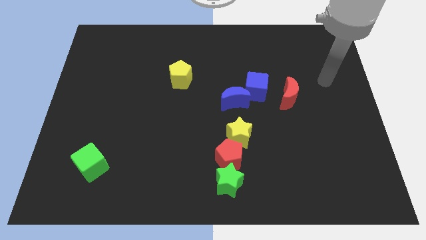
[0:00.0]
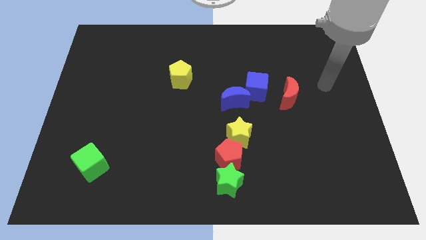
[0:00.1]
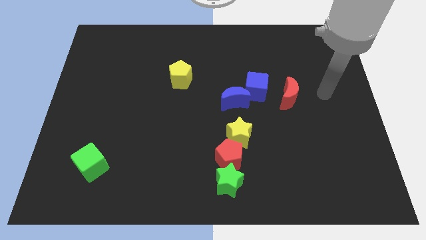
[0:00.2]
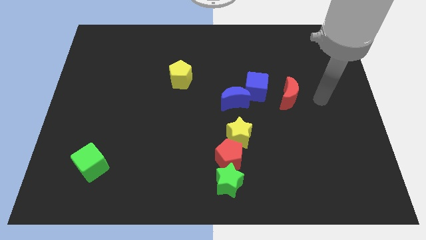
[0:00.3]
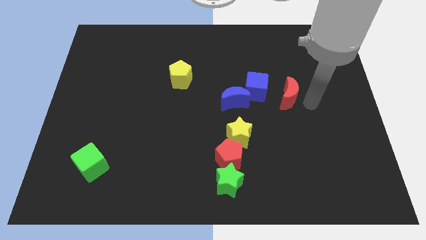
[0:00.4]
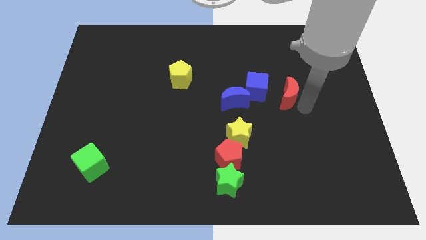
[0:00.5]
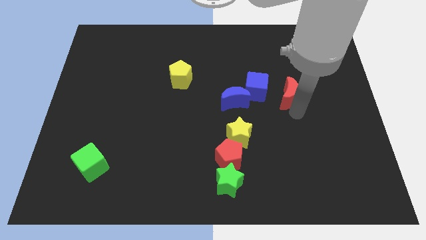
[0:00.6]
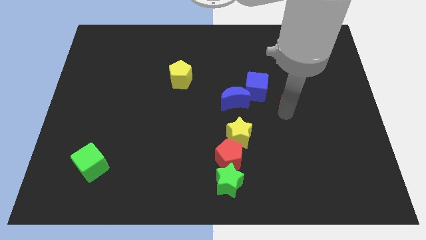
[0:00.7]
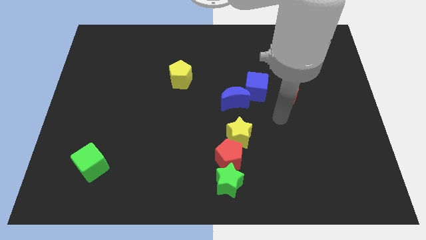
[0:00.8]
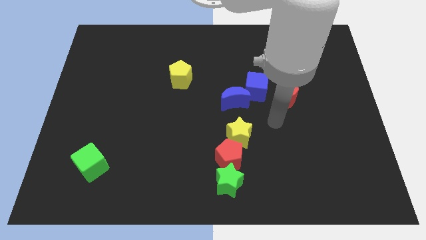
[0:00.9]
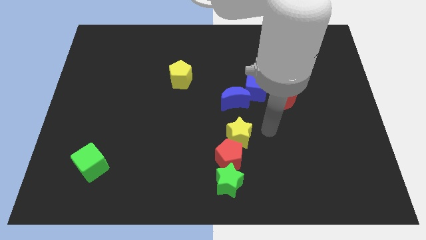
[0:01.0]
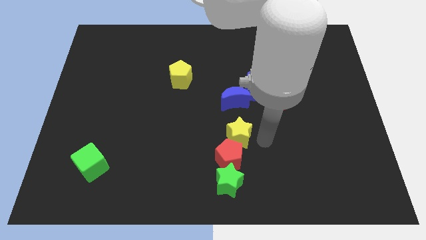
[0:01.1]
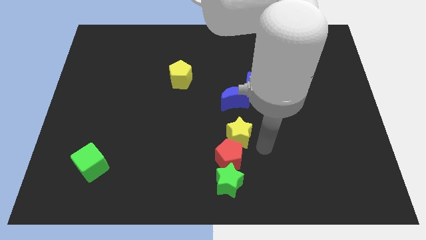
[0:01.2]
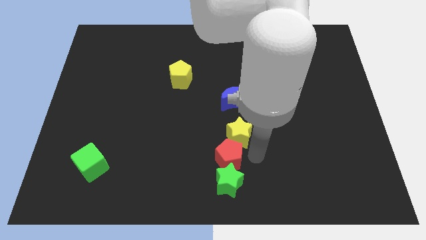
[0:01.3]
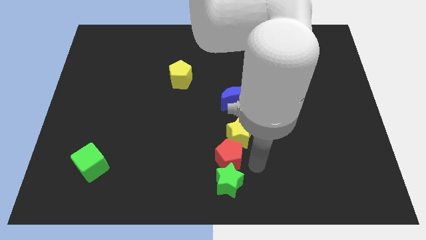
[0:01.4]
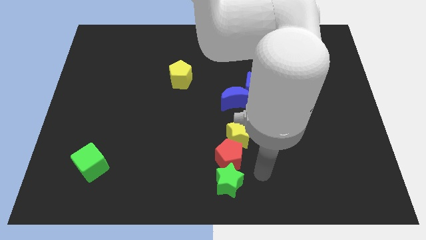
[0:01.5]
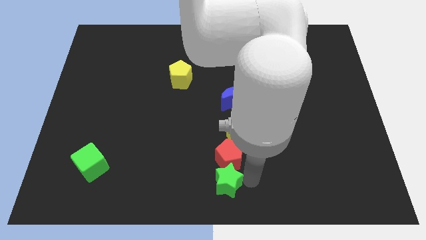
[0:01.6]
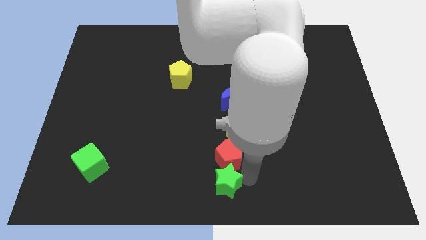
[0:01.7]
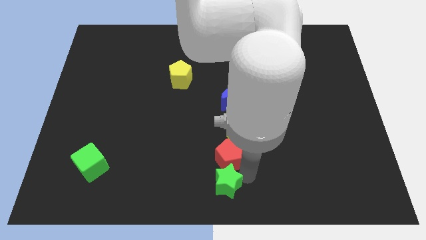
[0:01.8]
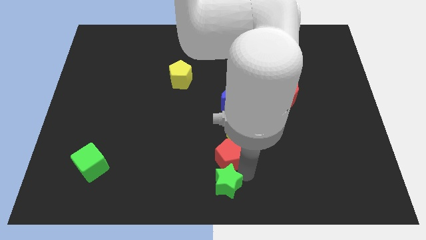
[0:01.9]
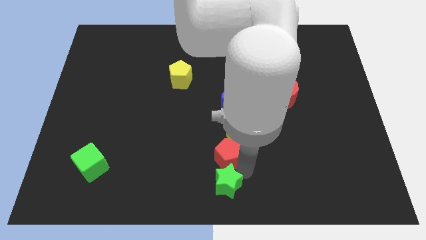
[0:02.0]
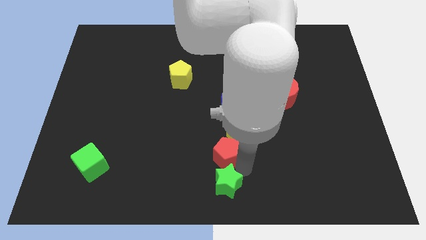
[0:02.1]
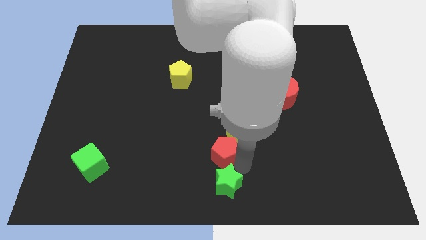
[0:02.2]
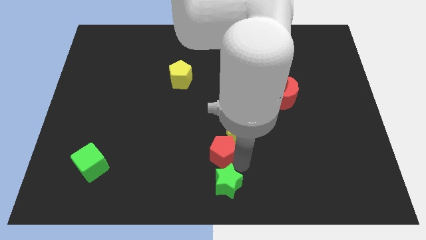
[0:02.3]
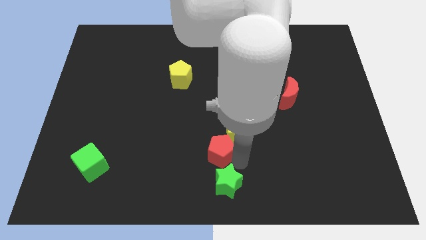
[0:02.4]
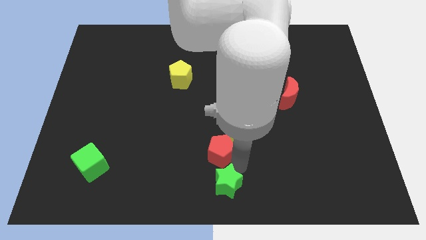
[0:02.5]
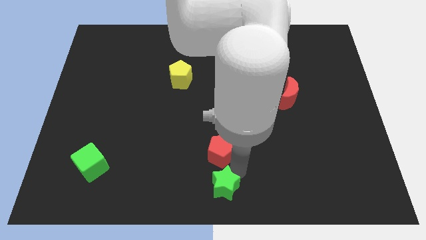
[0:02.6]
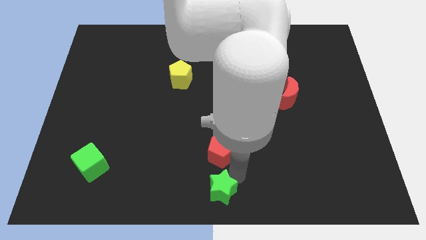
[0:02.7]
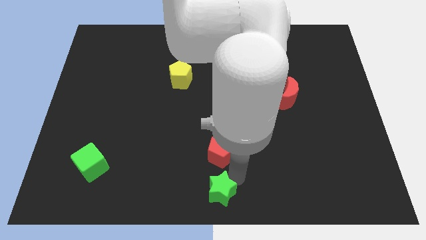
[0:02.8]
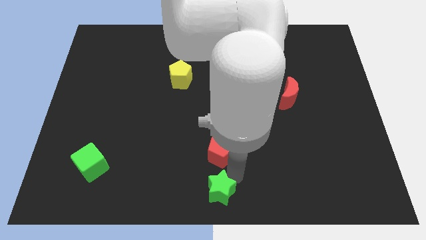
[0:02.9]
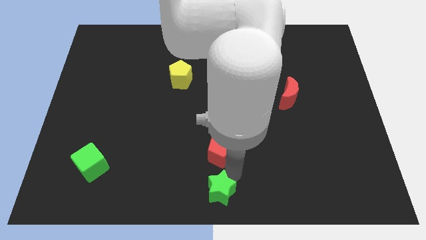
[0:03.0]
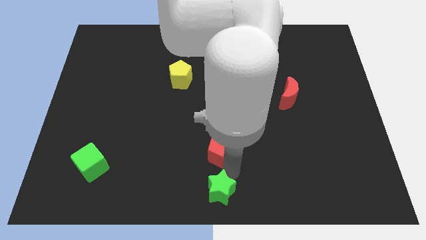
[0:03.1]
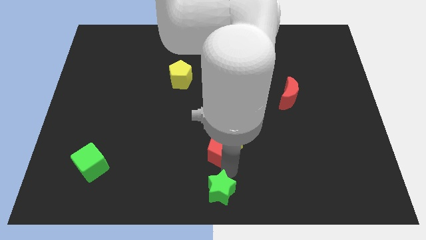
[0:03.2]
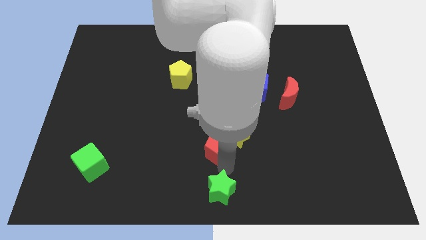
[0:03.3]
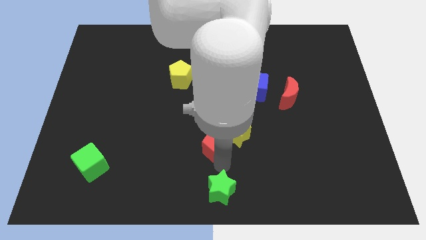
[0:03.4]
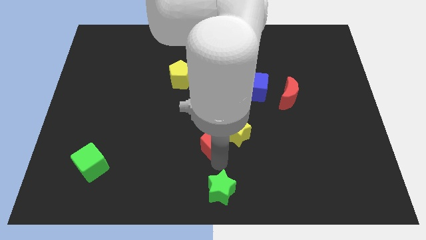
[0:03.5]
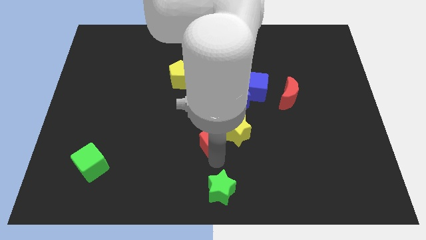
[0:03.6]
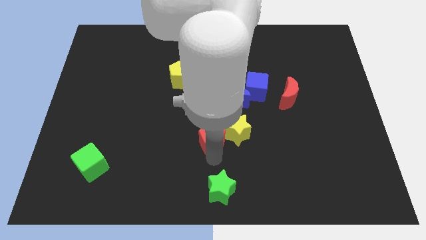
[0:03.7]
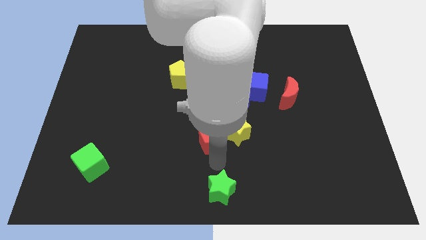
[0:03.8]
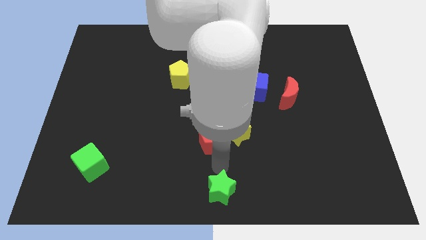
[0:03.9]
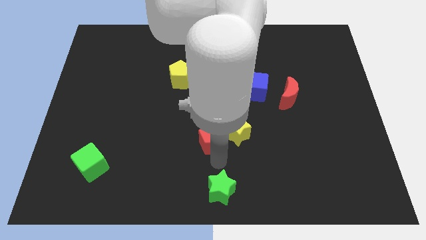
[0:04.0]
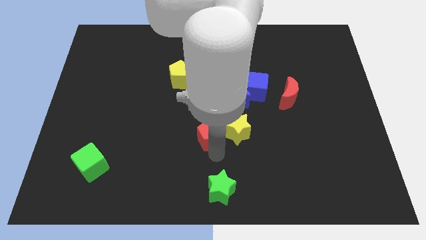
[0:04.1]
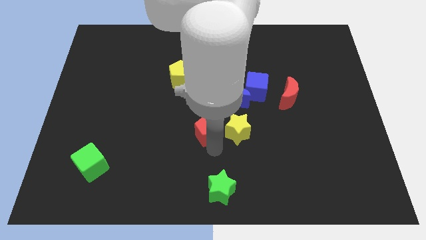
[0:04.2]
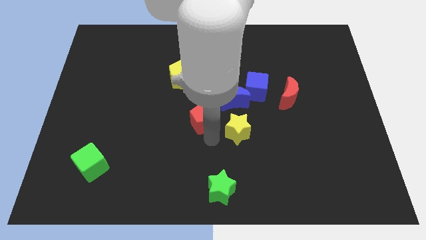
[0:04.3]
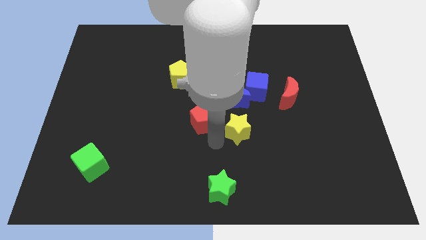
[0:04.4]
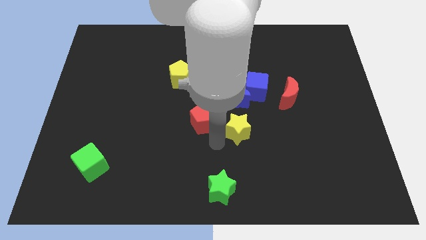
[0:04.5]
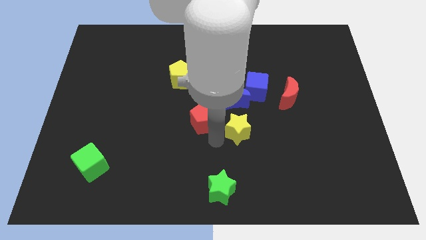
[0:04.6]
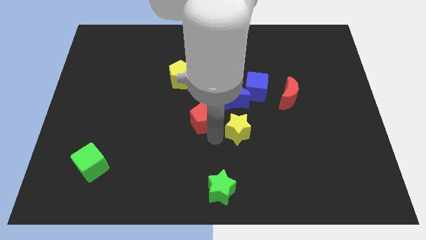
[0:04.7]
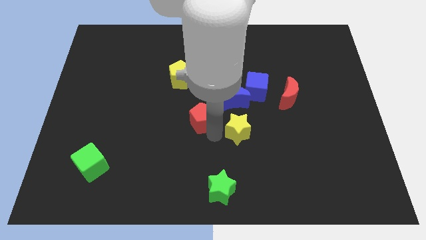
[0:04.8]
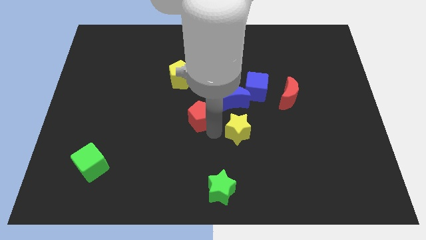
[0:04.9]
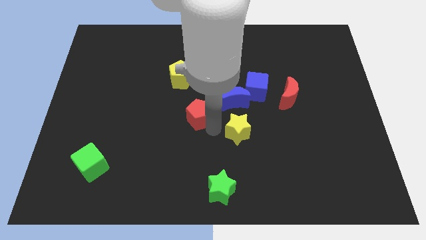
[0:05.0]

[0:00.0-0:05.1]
move the red pentagon just left of the blue moon

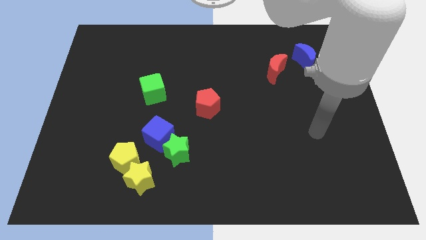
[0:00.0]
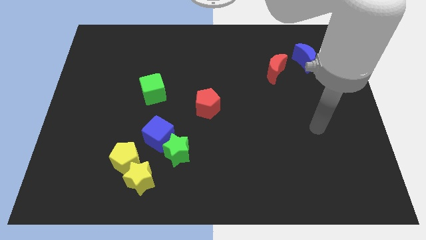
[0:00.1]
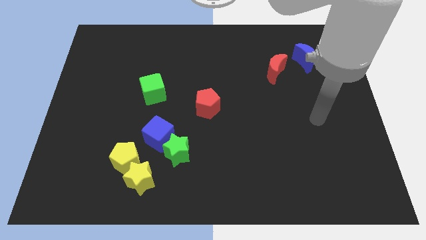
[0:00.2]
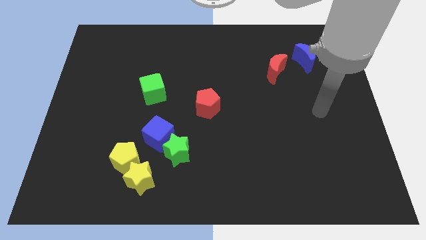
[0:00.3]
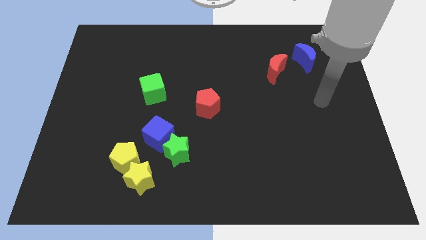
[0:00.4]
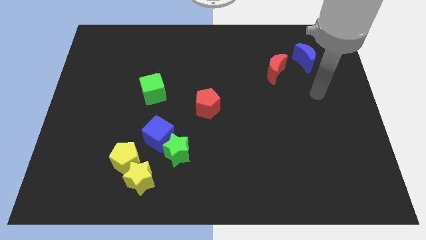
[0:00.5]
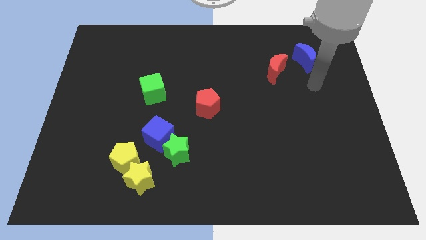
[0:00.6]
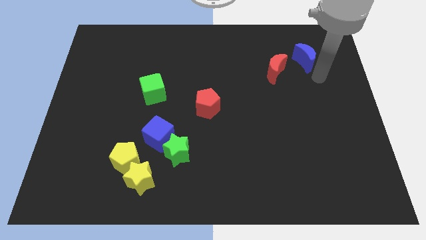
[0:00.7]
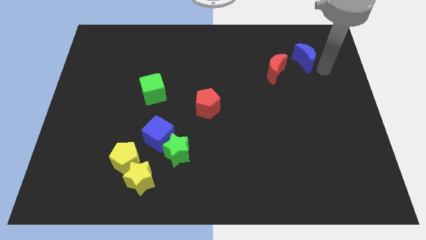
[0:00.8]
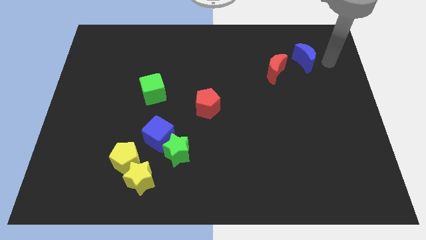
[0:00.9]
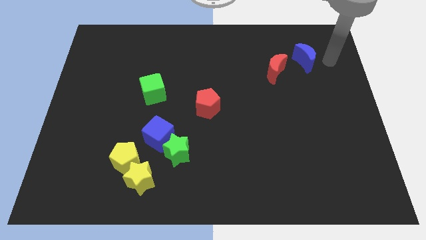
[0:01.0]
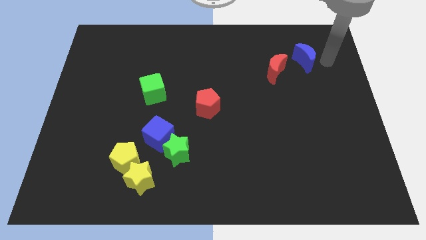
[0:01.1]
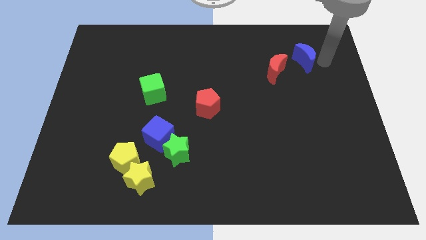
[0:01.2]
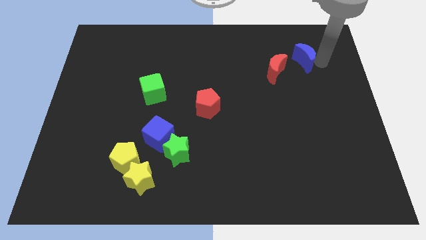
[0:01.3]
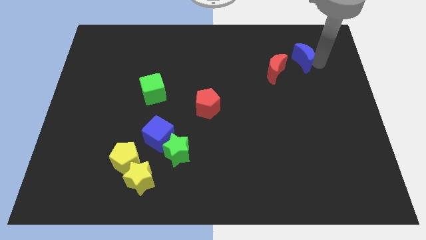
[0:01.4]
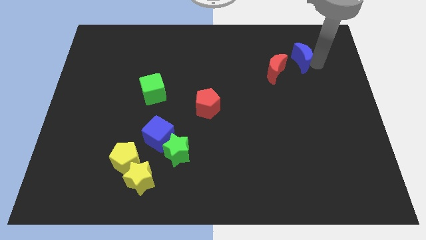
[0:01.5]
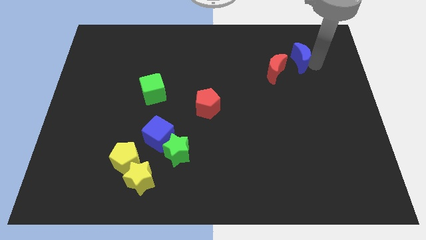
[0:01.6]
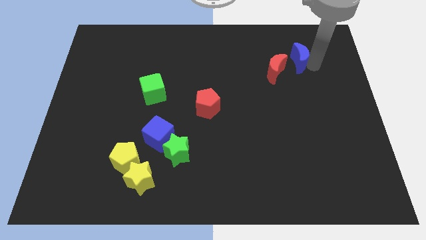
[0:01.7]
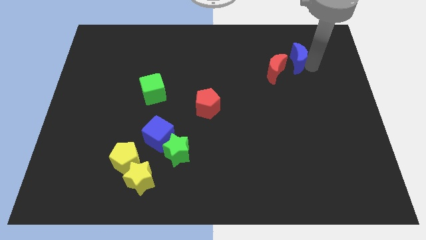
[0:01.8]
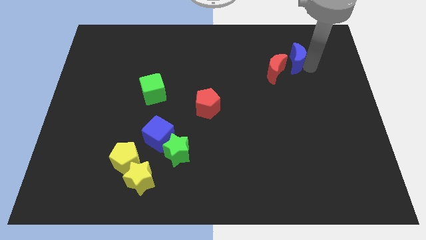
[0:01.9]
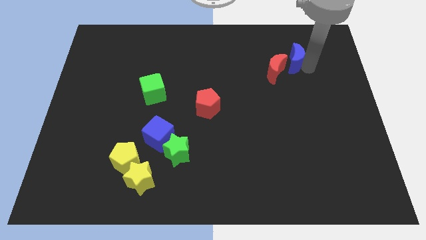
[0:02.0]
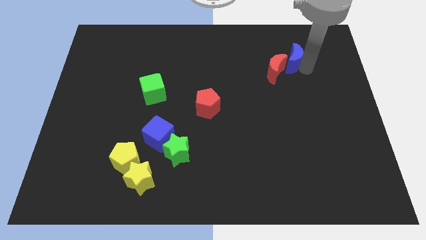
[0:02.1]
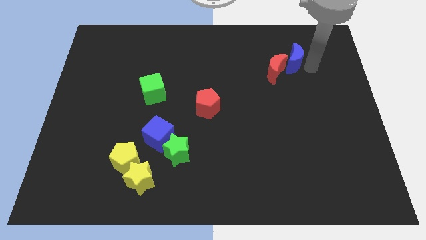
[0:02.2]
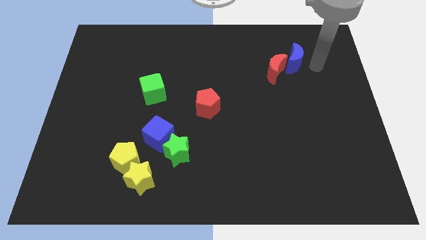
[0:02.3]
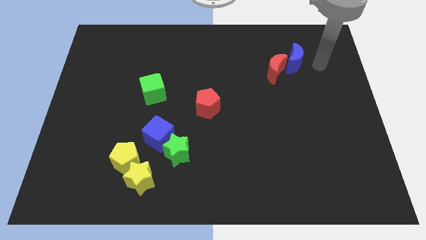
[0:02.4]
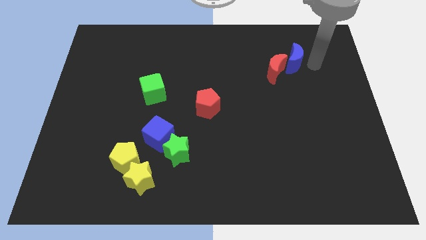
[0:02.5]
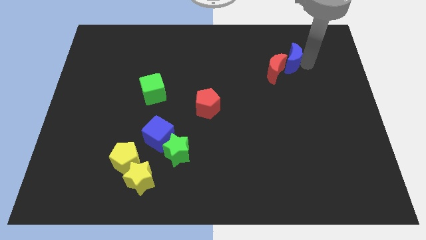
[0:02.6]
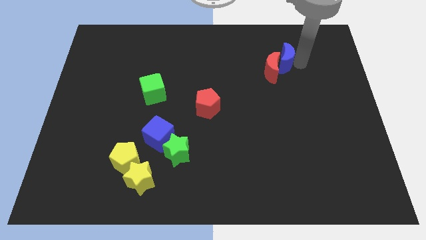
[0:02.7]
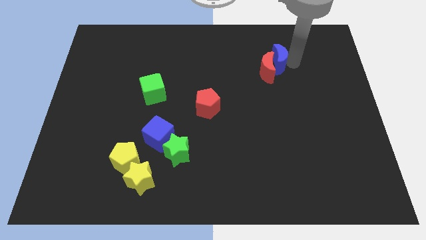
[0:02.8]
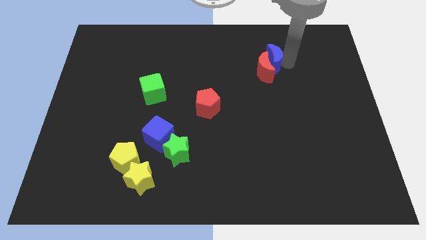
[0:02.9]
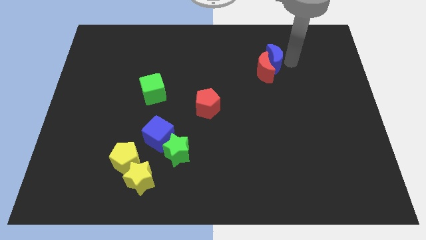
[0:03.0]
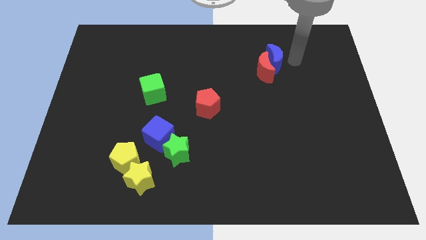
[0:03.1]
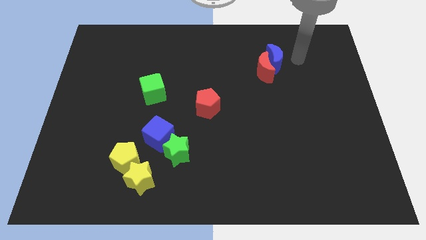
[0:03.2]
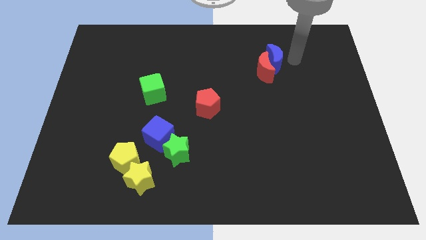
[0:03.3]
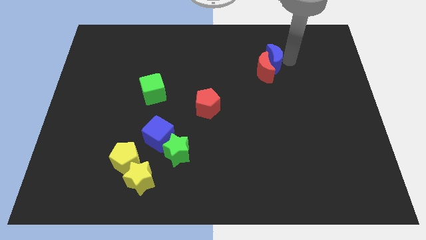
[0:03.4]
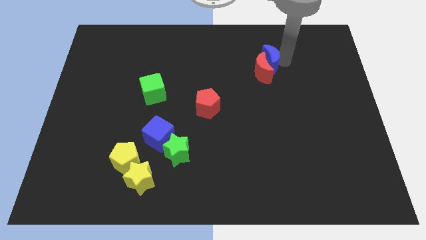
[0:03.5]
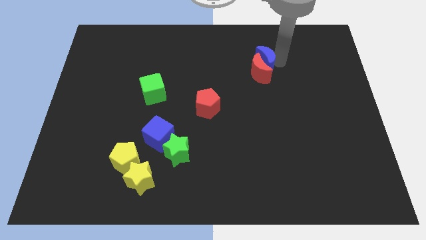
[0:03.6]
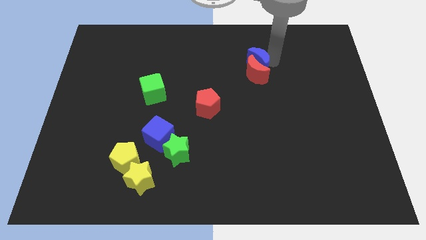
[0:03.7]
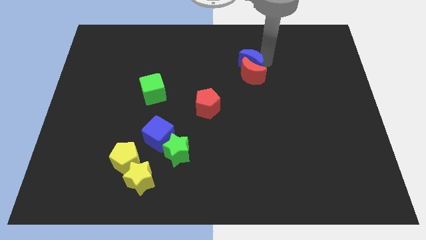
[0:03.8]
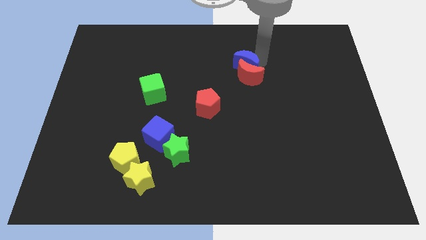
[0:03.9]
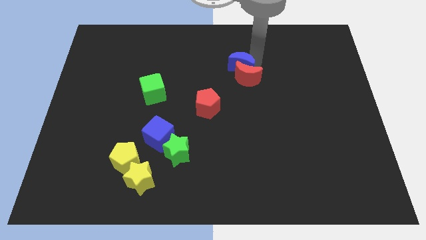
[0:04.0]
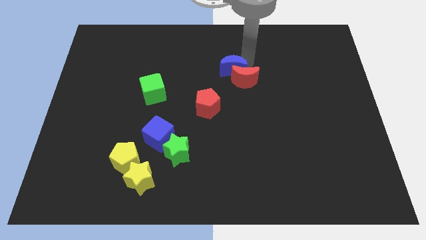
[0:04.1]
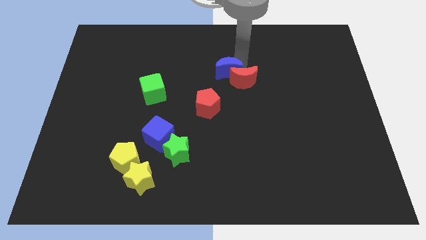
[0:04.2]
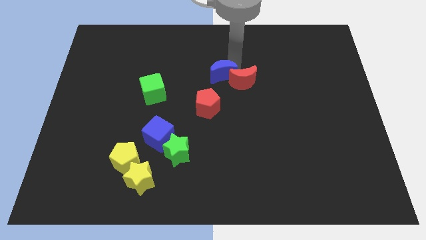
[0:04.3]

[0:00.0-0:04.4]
put the blue moon diagonally up and to the right of the red pentagon
